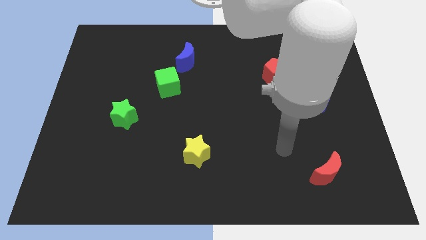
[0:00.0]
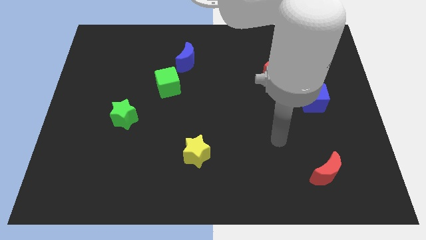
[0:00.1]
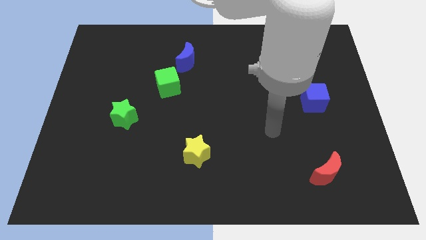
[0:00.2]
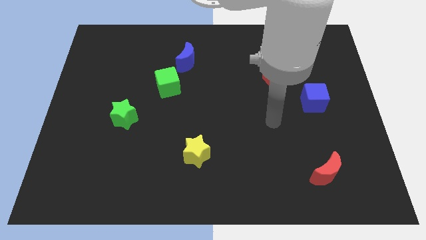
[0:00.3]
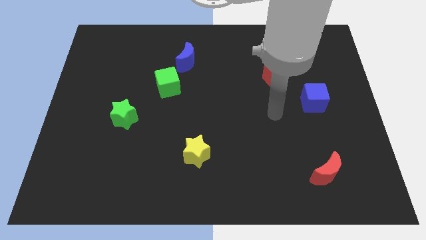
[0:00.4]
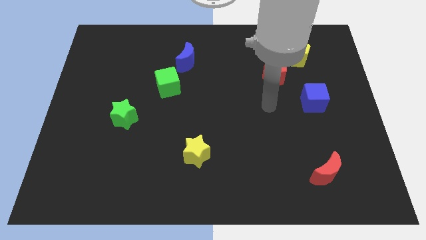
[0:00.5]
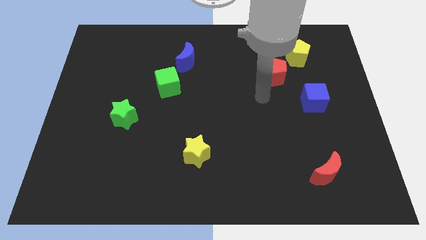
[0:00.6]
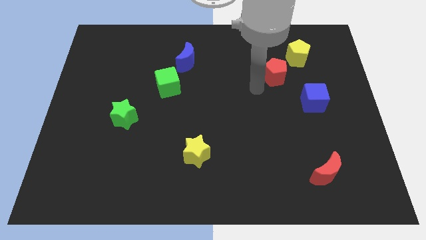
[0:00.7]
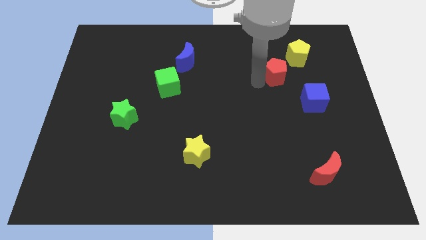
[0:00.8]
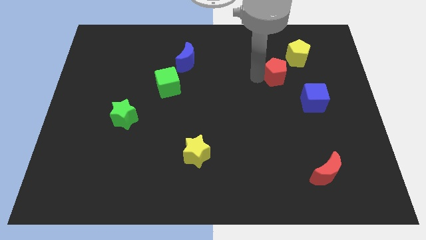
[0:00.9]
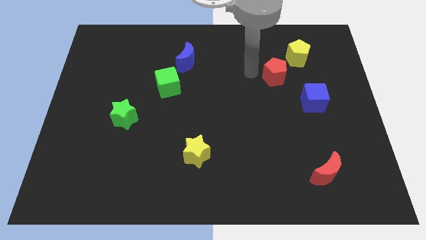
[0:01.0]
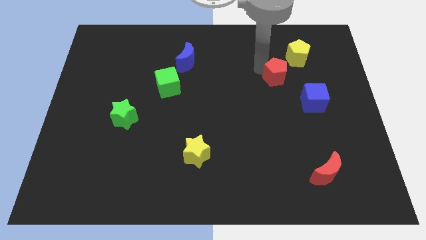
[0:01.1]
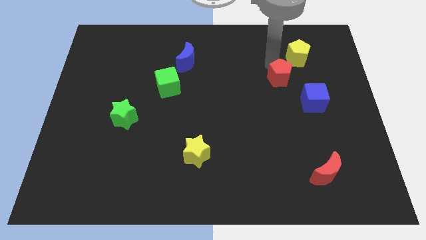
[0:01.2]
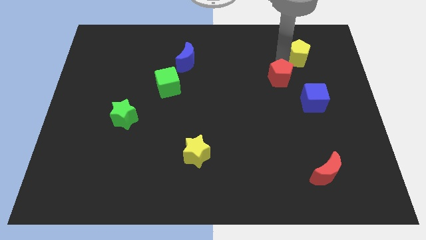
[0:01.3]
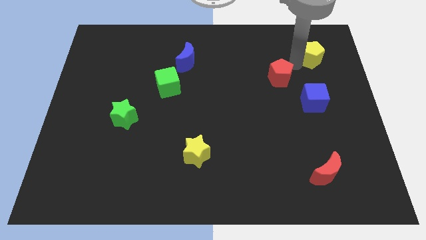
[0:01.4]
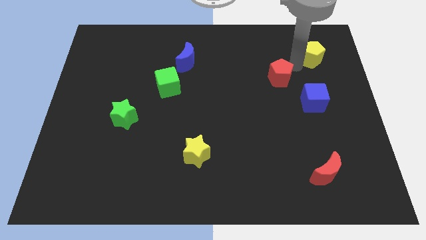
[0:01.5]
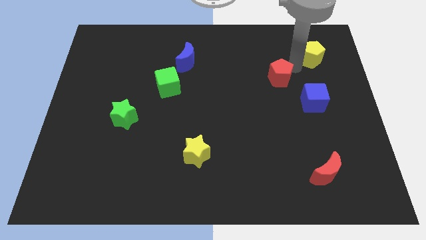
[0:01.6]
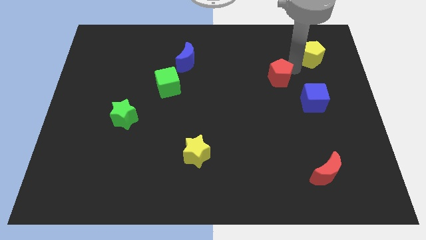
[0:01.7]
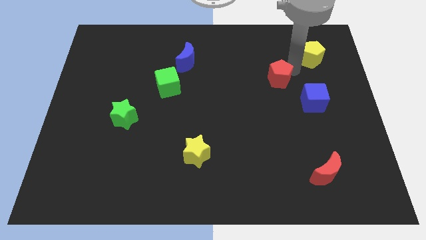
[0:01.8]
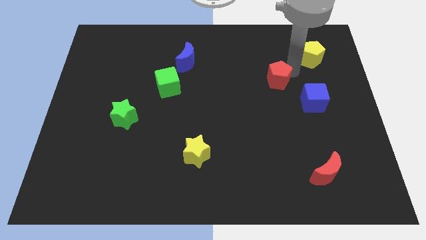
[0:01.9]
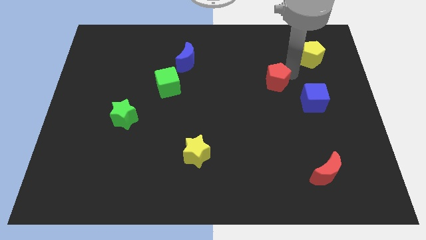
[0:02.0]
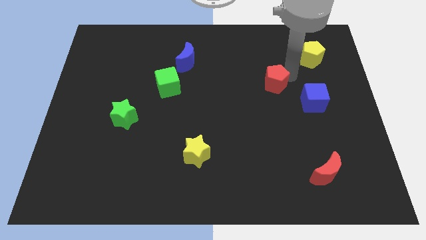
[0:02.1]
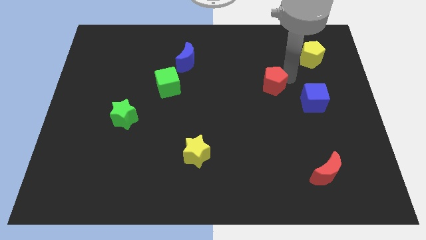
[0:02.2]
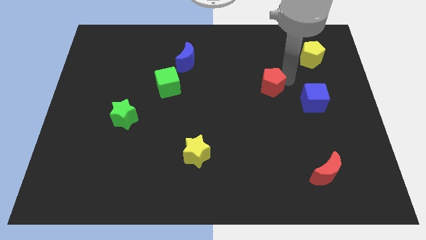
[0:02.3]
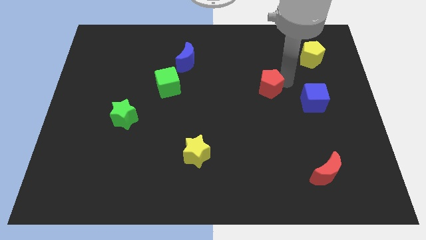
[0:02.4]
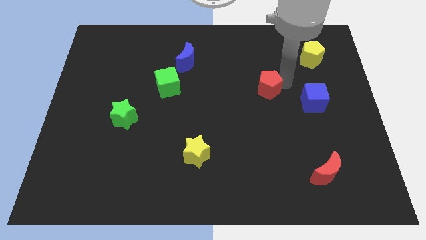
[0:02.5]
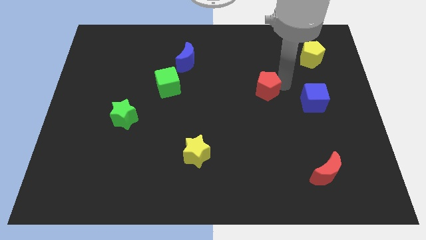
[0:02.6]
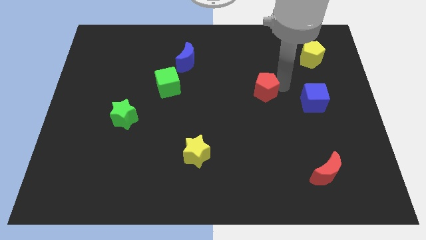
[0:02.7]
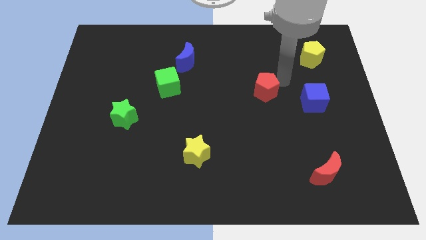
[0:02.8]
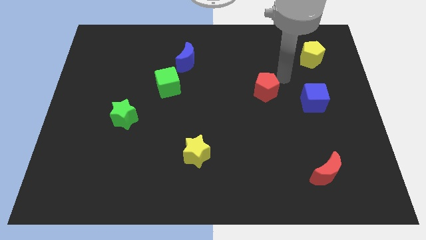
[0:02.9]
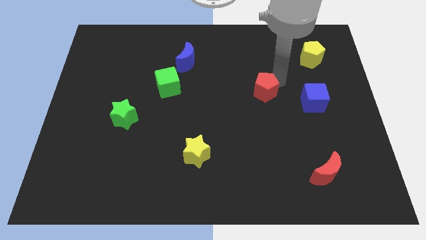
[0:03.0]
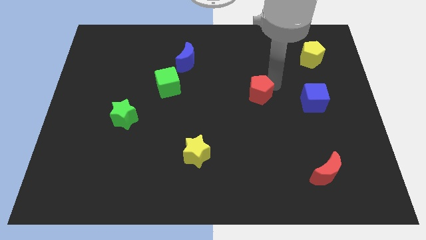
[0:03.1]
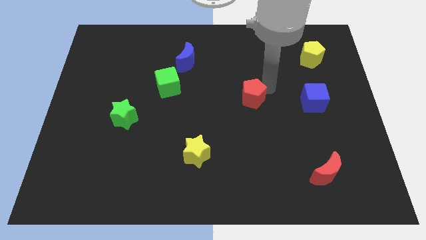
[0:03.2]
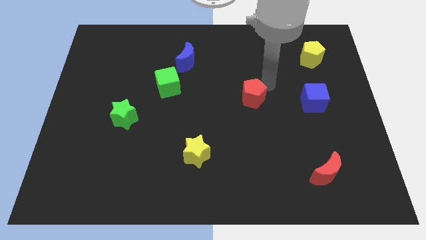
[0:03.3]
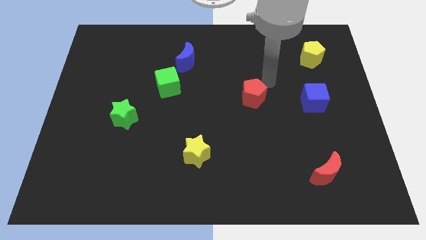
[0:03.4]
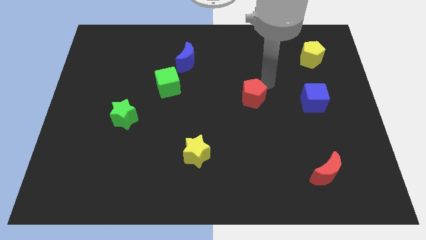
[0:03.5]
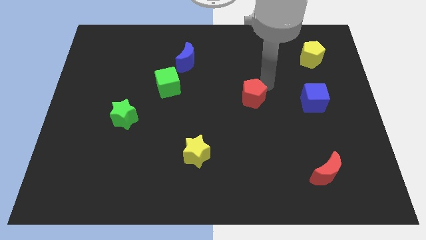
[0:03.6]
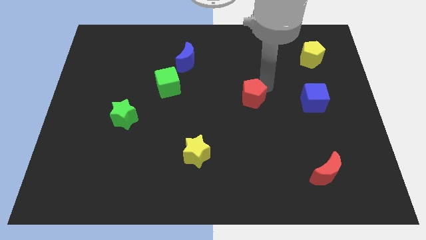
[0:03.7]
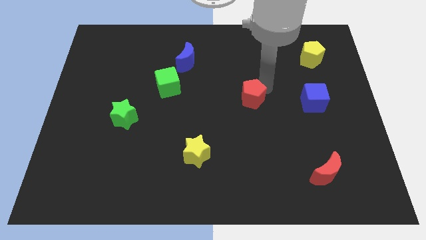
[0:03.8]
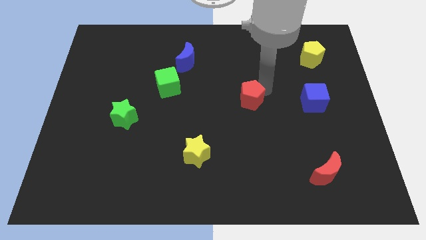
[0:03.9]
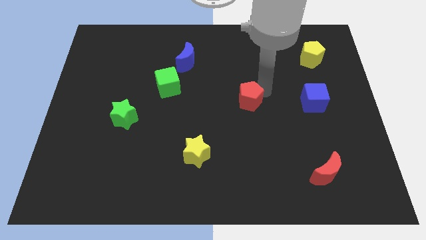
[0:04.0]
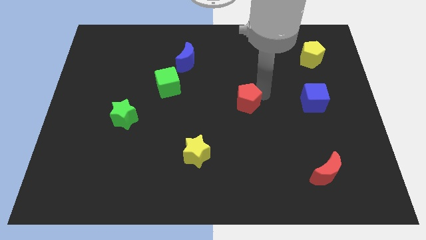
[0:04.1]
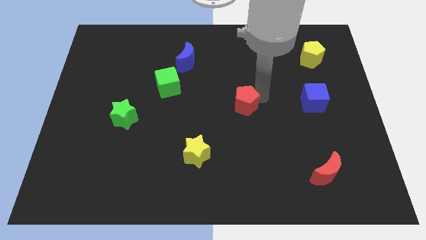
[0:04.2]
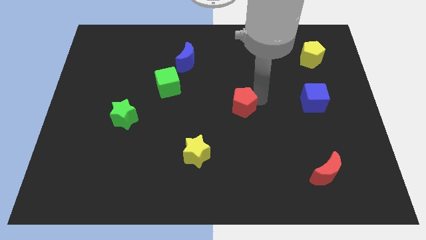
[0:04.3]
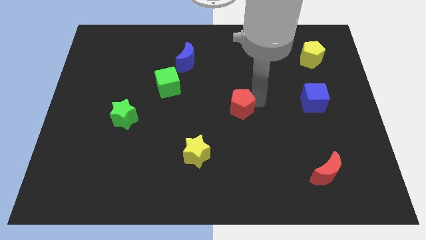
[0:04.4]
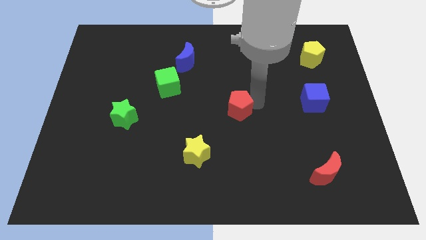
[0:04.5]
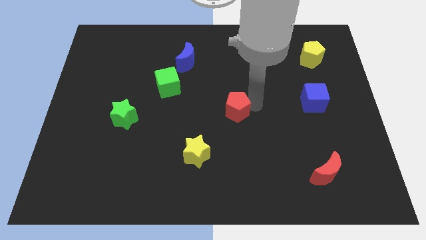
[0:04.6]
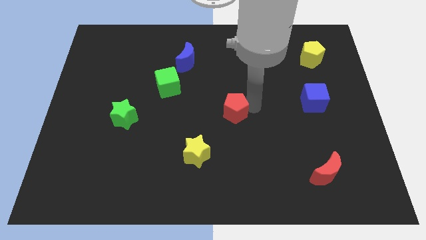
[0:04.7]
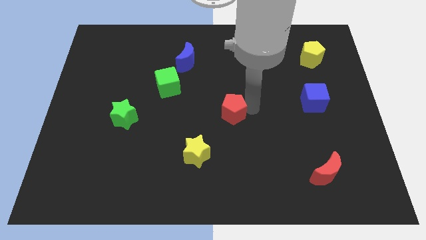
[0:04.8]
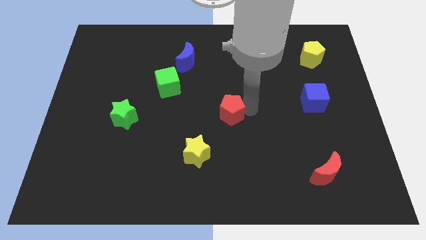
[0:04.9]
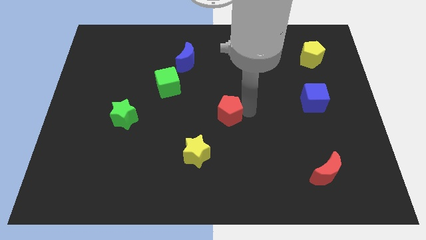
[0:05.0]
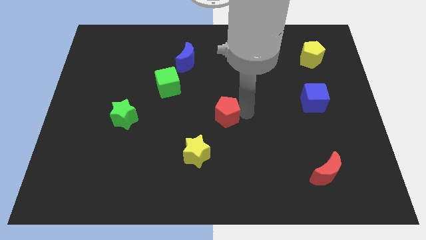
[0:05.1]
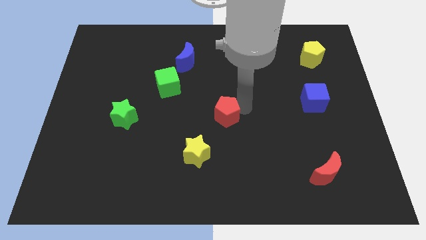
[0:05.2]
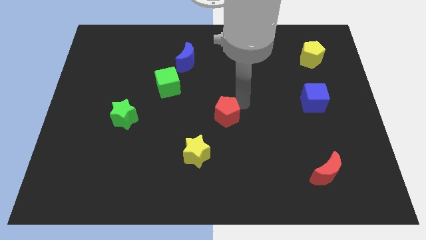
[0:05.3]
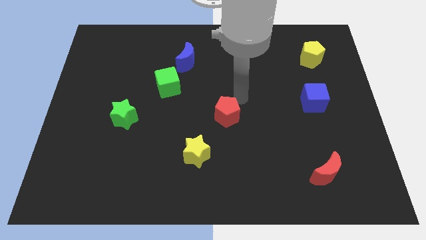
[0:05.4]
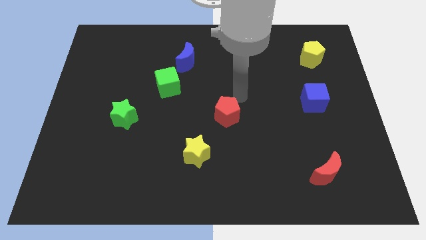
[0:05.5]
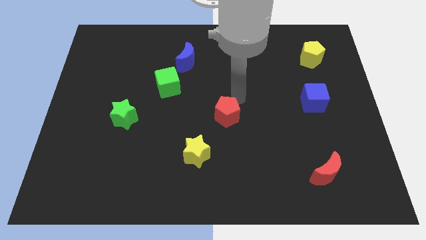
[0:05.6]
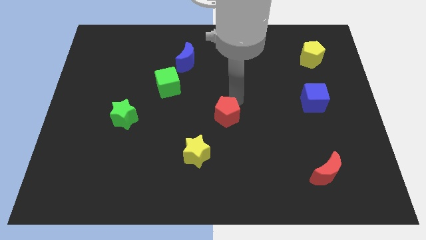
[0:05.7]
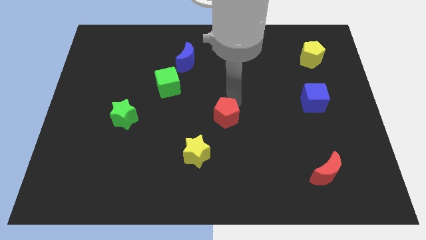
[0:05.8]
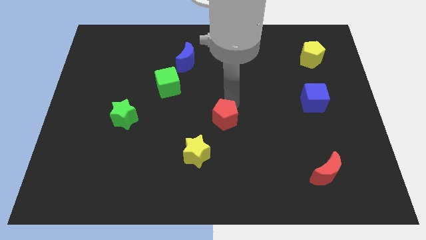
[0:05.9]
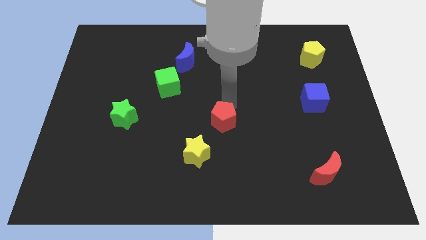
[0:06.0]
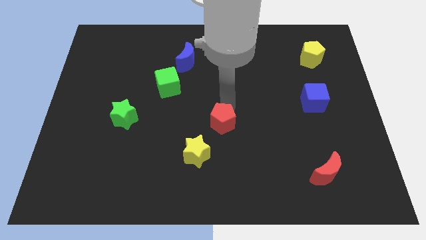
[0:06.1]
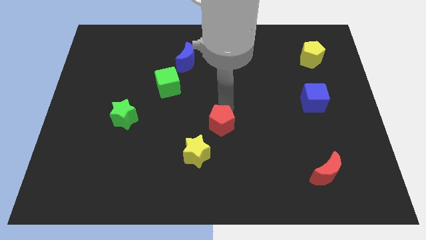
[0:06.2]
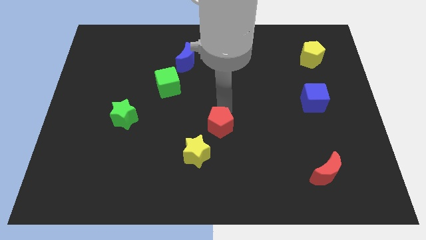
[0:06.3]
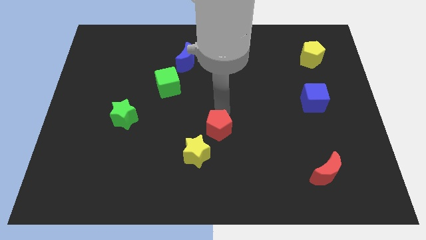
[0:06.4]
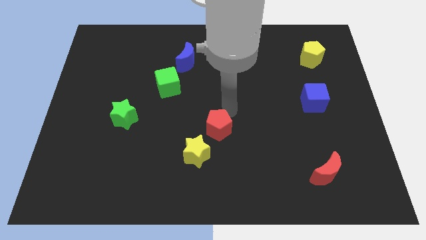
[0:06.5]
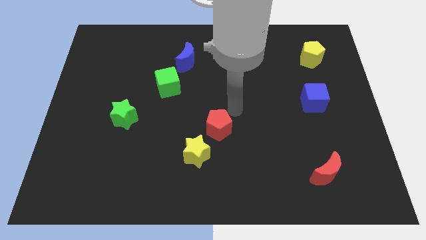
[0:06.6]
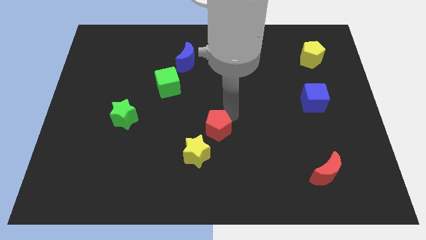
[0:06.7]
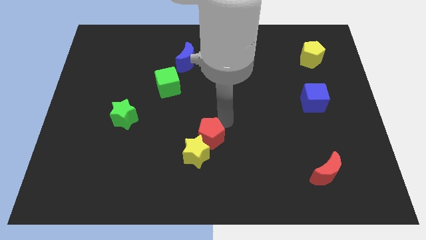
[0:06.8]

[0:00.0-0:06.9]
push the red pentagon next to the yellow star

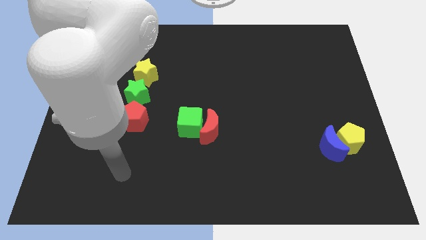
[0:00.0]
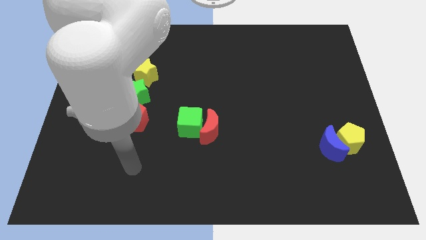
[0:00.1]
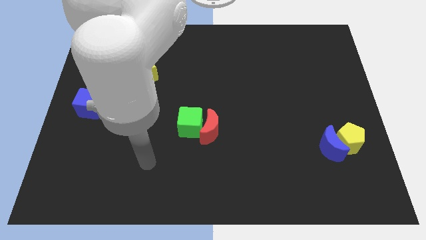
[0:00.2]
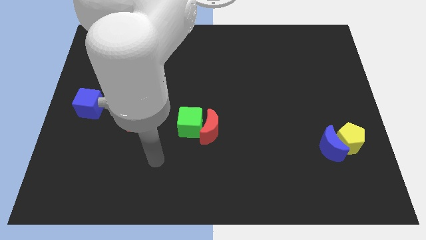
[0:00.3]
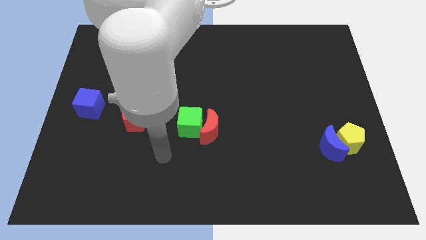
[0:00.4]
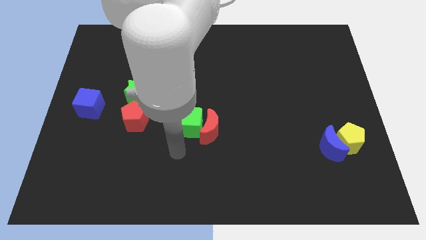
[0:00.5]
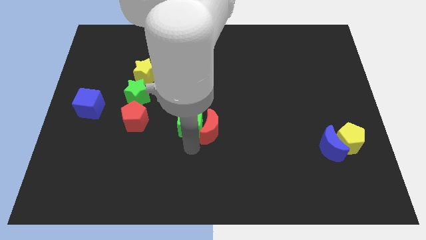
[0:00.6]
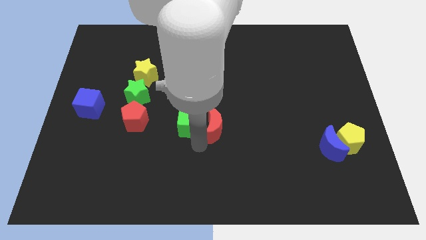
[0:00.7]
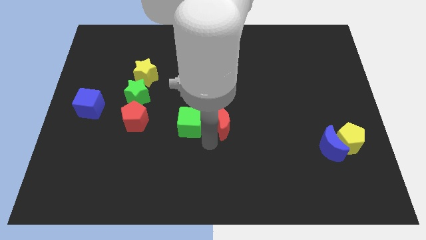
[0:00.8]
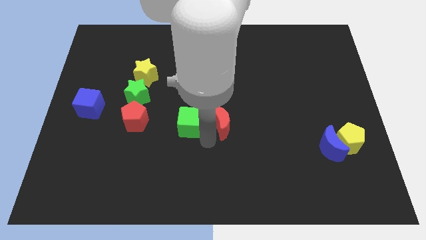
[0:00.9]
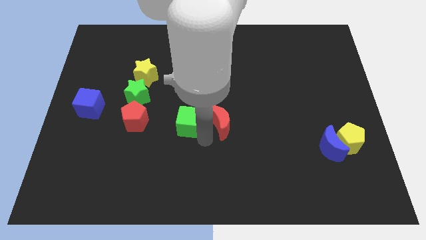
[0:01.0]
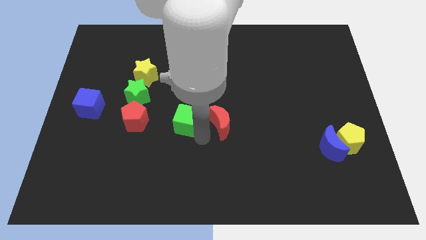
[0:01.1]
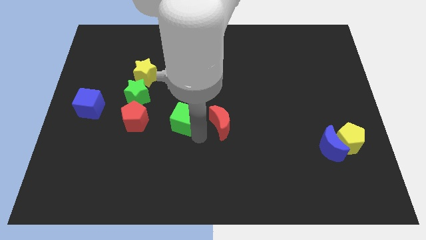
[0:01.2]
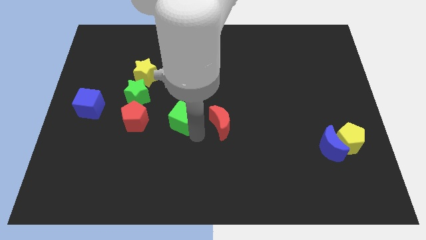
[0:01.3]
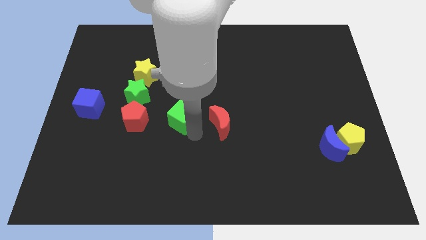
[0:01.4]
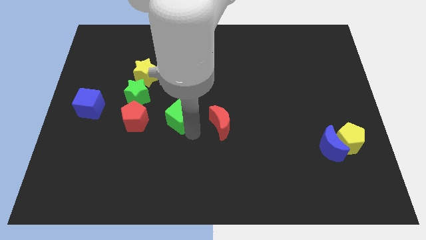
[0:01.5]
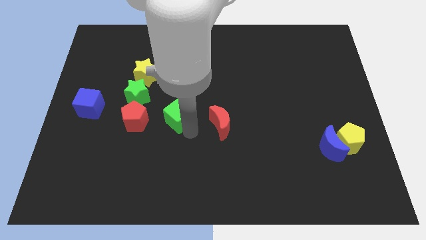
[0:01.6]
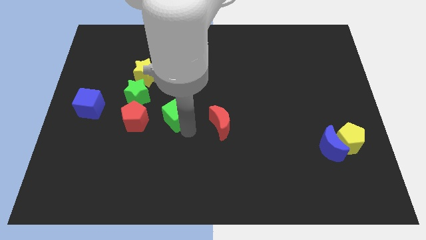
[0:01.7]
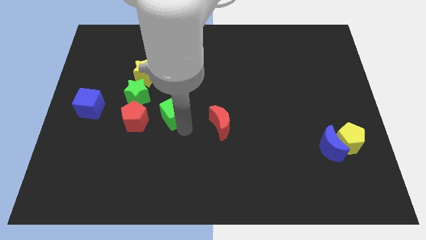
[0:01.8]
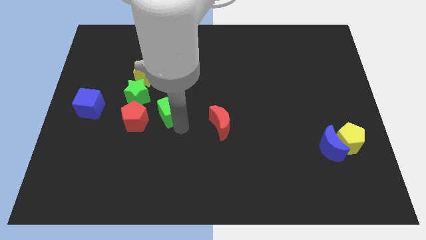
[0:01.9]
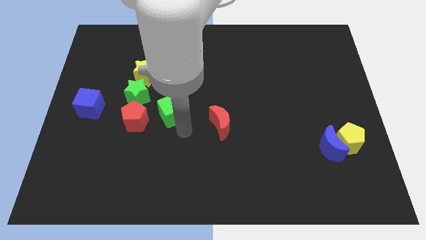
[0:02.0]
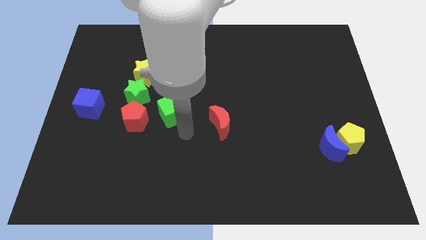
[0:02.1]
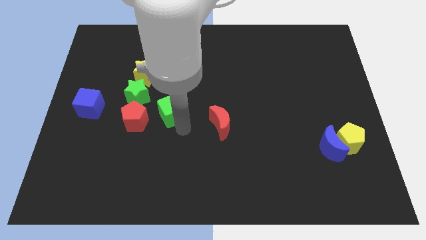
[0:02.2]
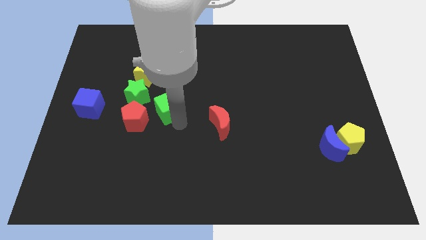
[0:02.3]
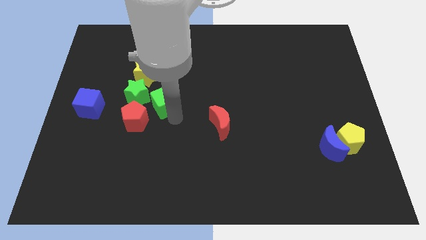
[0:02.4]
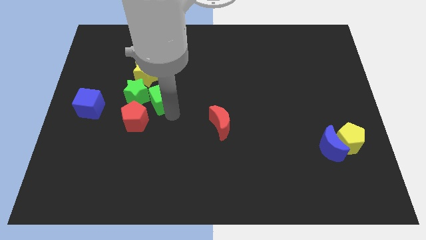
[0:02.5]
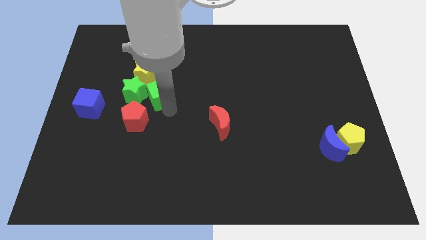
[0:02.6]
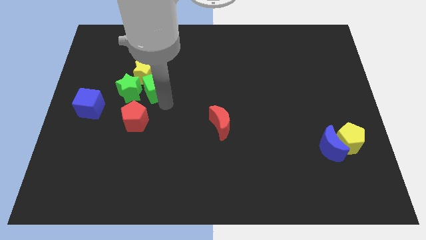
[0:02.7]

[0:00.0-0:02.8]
slide the green cube next to the yellow star
